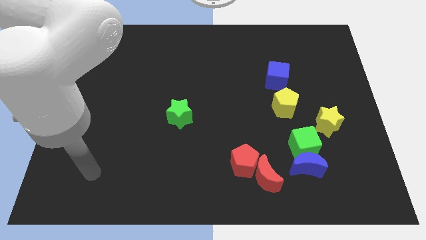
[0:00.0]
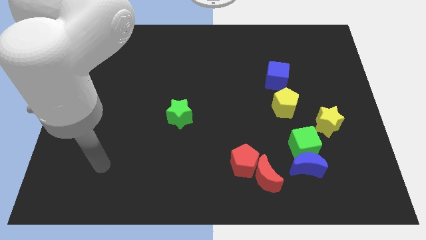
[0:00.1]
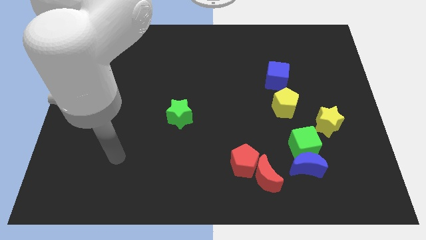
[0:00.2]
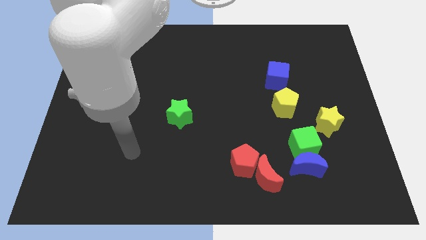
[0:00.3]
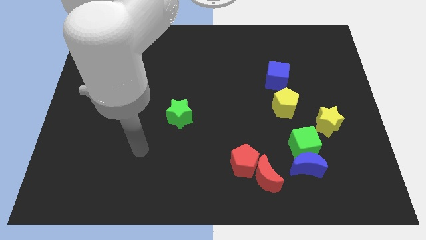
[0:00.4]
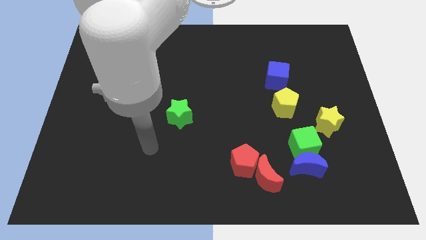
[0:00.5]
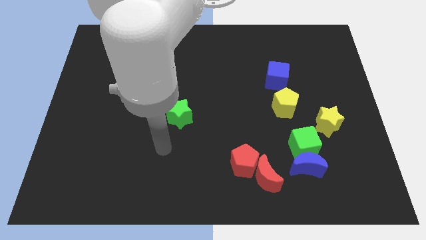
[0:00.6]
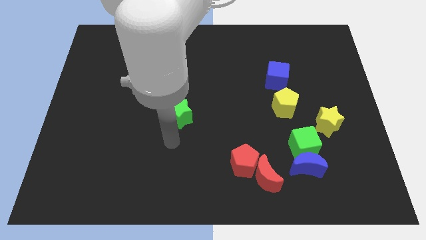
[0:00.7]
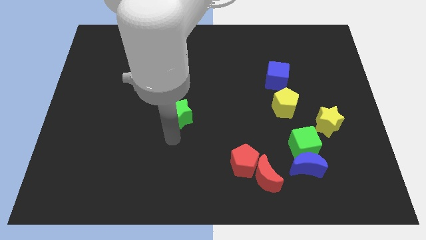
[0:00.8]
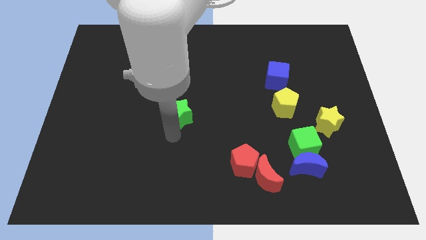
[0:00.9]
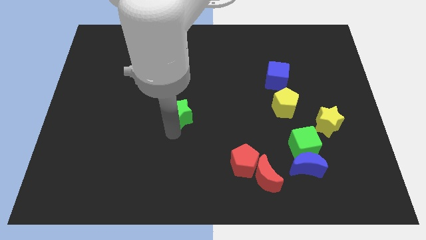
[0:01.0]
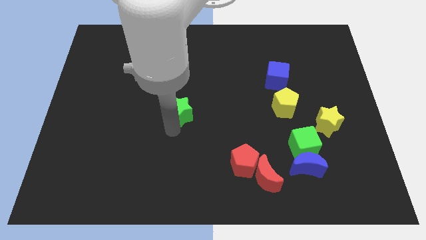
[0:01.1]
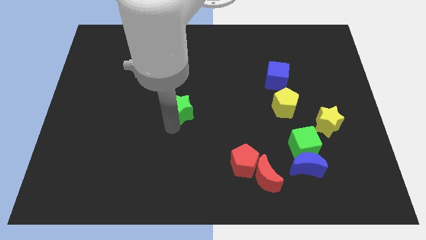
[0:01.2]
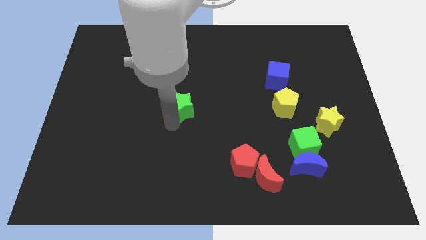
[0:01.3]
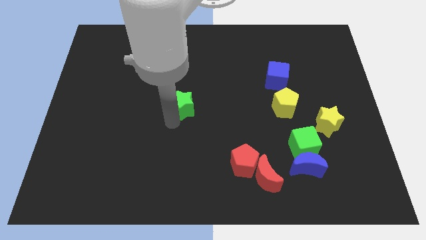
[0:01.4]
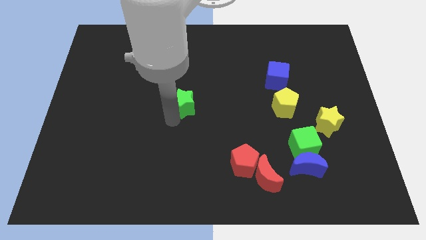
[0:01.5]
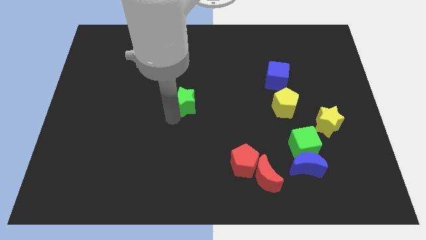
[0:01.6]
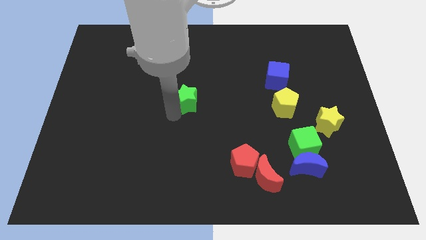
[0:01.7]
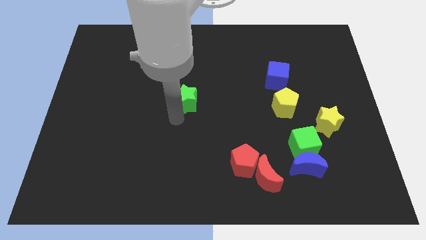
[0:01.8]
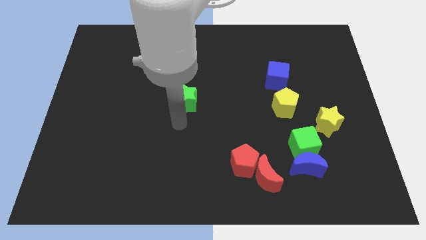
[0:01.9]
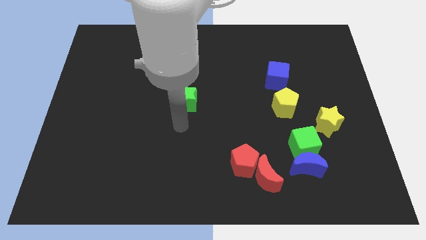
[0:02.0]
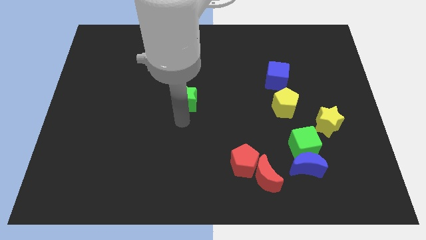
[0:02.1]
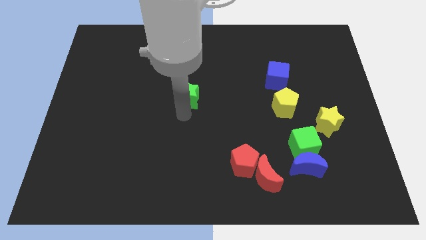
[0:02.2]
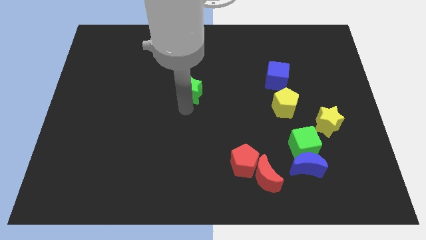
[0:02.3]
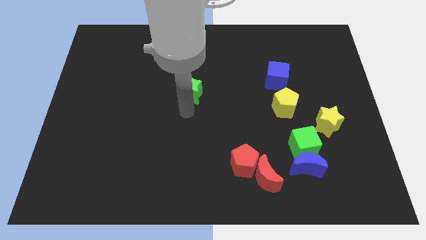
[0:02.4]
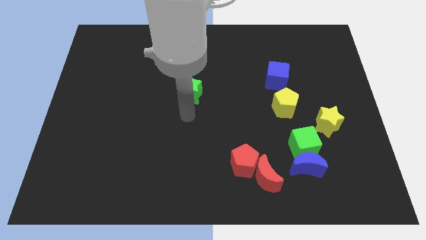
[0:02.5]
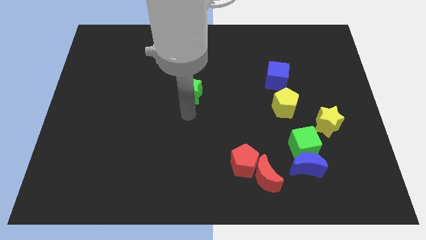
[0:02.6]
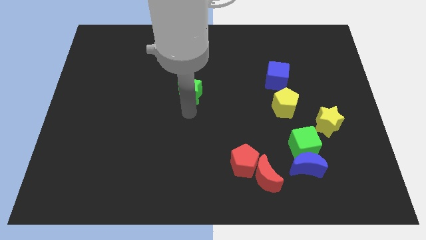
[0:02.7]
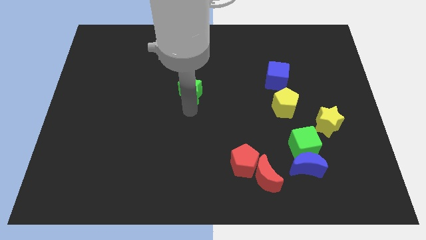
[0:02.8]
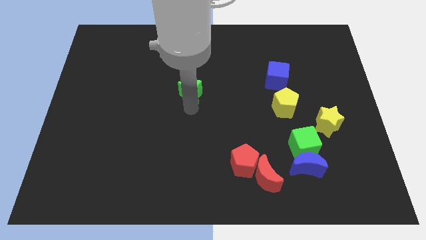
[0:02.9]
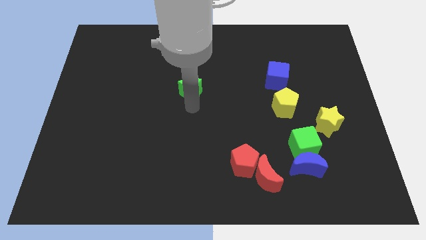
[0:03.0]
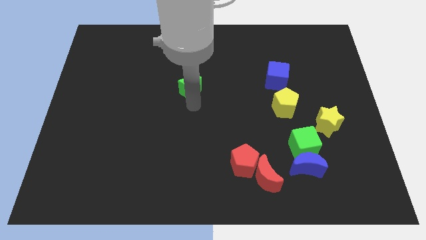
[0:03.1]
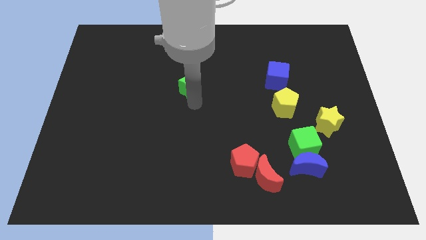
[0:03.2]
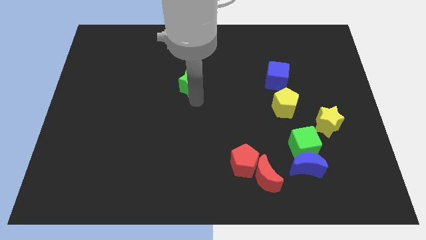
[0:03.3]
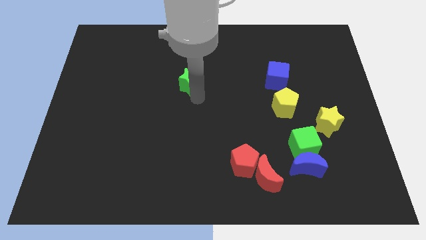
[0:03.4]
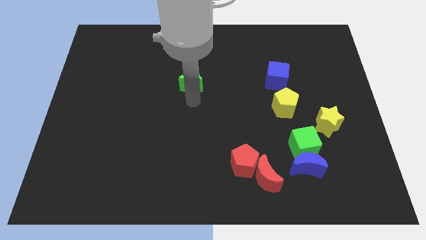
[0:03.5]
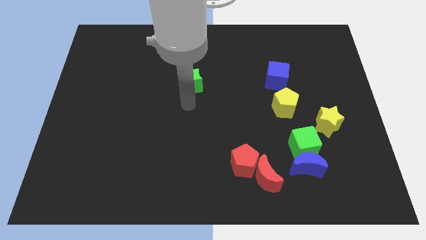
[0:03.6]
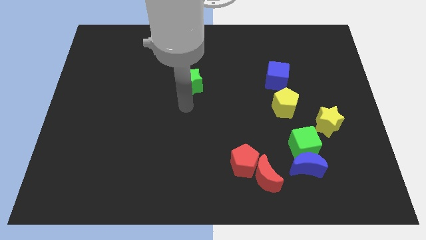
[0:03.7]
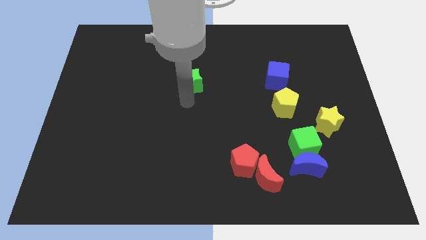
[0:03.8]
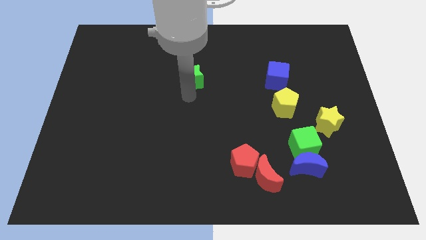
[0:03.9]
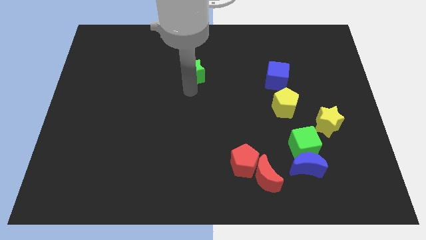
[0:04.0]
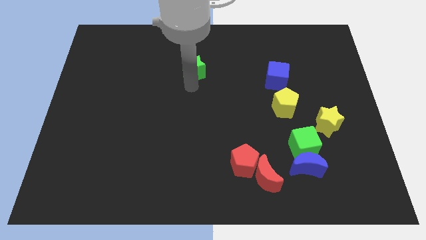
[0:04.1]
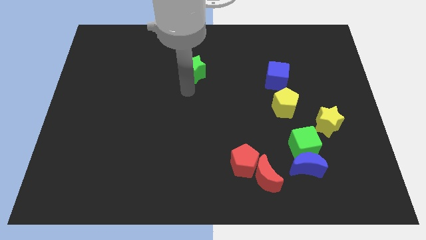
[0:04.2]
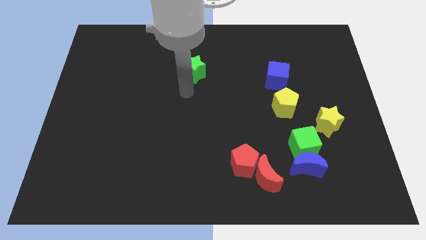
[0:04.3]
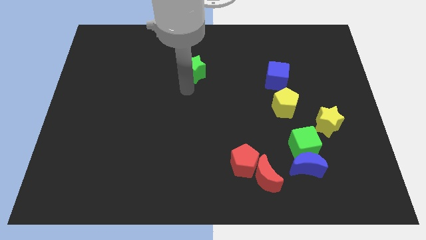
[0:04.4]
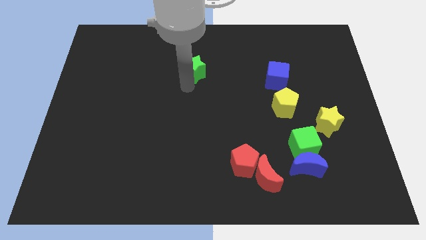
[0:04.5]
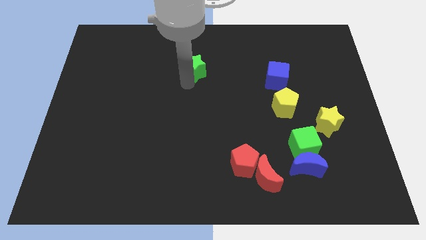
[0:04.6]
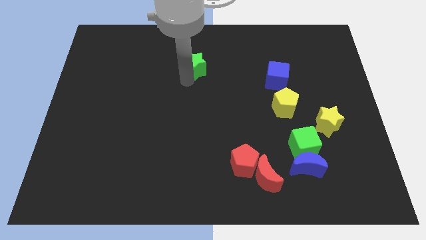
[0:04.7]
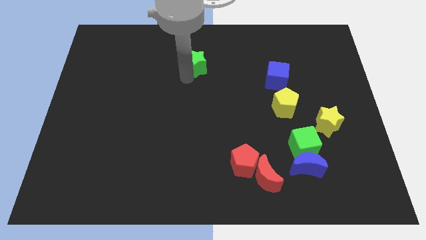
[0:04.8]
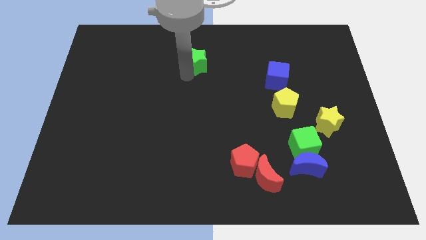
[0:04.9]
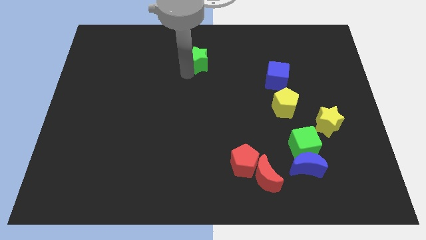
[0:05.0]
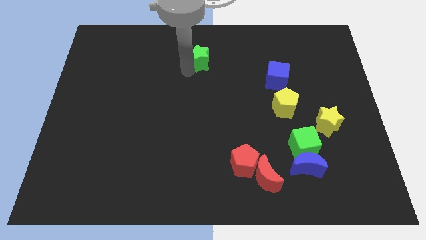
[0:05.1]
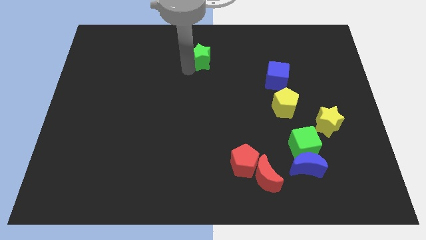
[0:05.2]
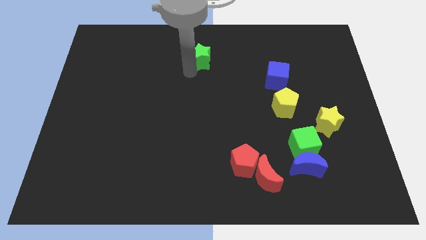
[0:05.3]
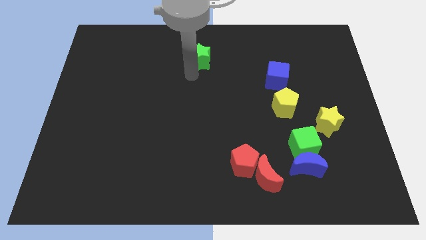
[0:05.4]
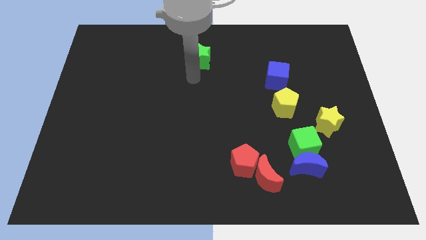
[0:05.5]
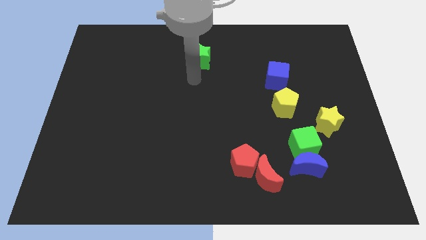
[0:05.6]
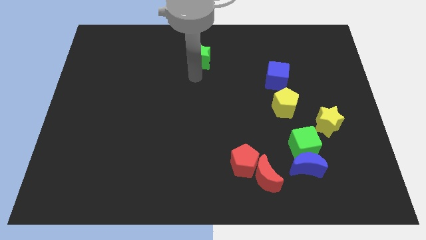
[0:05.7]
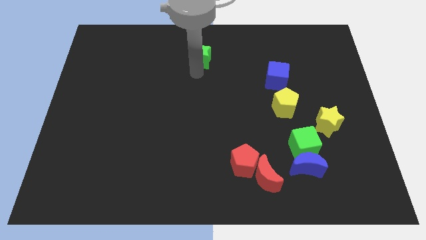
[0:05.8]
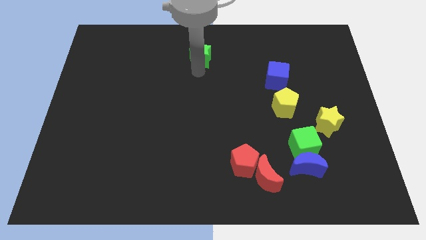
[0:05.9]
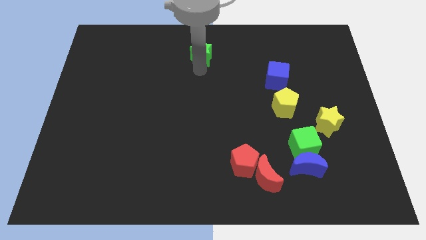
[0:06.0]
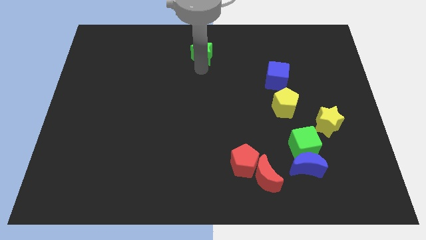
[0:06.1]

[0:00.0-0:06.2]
move the green star to the top
